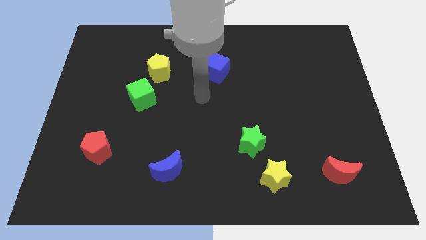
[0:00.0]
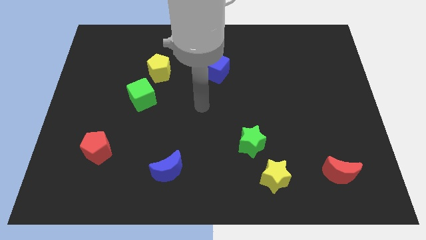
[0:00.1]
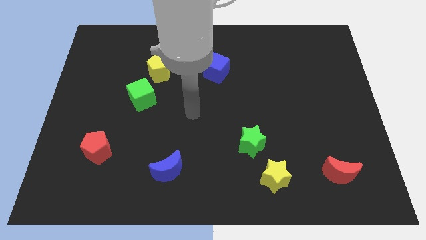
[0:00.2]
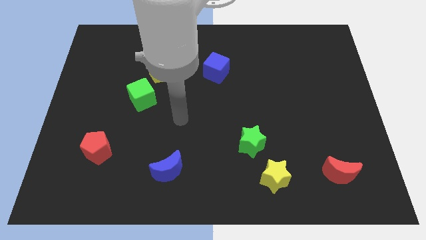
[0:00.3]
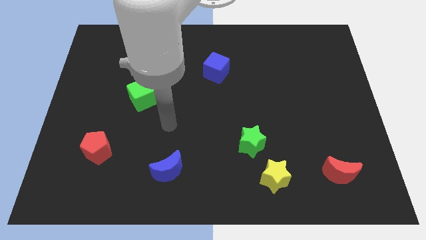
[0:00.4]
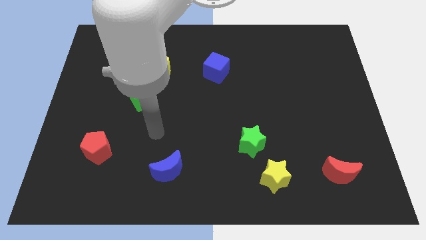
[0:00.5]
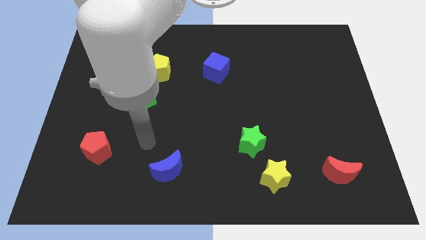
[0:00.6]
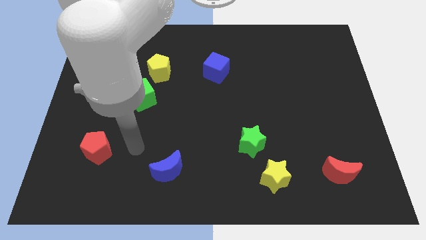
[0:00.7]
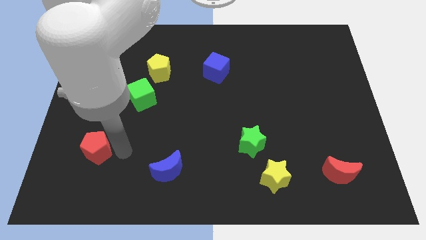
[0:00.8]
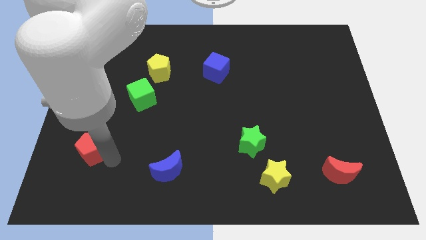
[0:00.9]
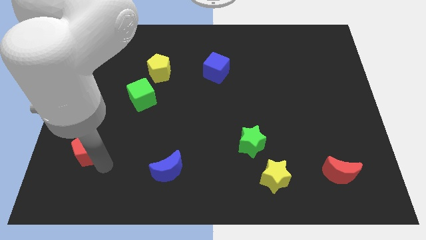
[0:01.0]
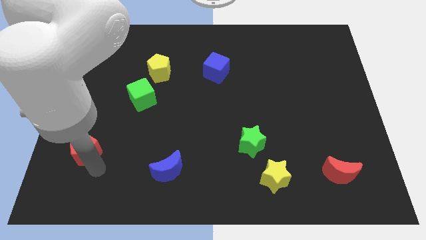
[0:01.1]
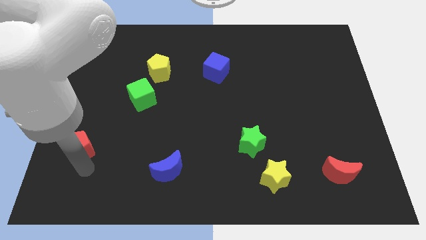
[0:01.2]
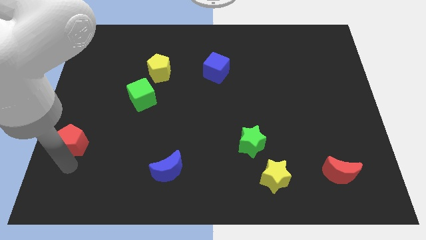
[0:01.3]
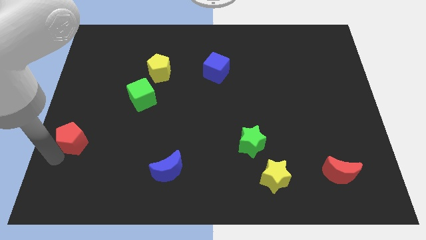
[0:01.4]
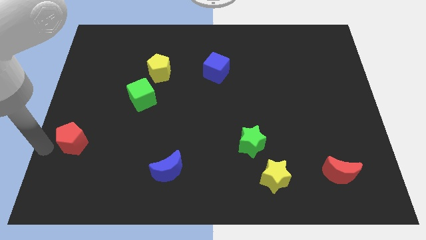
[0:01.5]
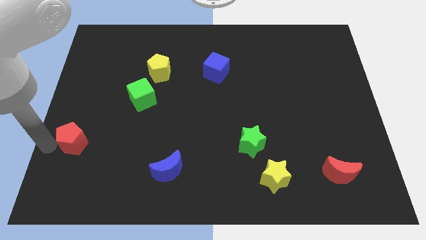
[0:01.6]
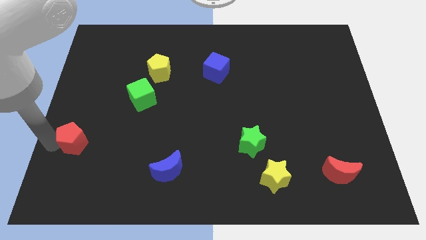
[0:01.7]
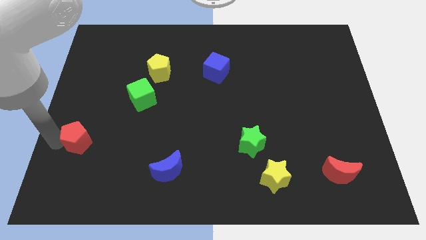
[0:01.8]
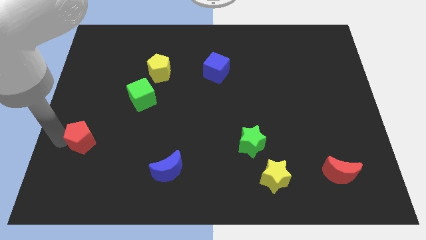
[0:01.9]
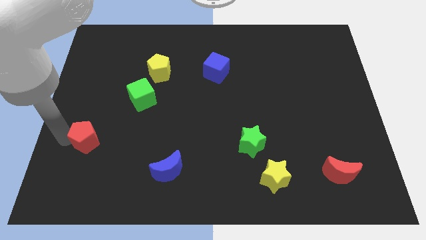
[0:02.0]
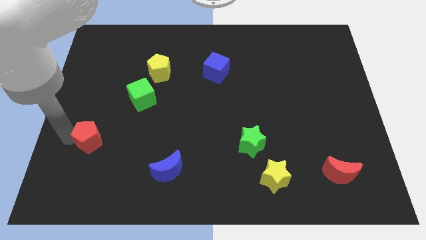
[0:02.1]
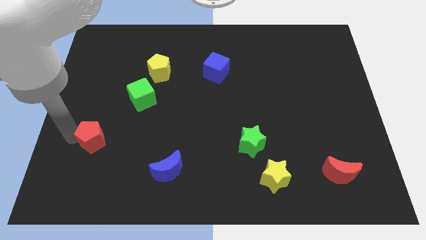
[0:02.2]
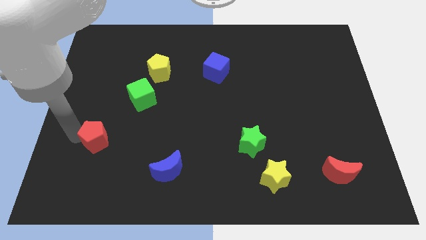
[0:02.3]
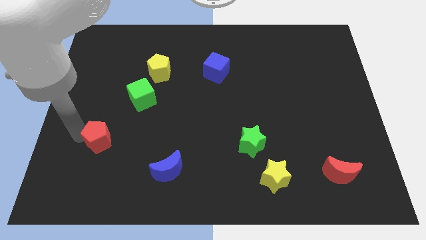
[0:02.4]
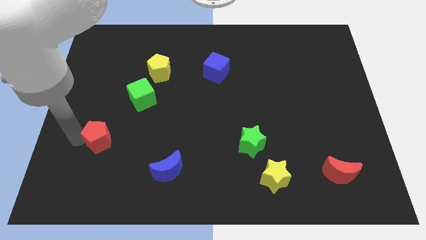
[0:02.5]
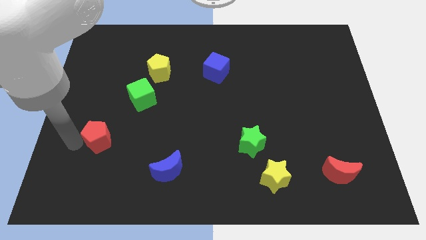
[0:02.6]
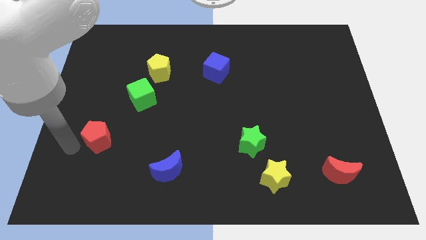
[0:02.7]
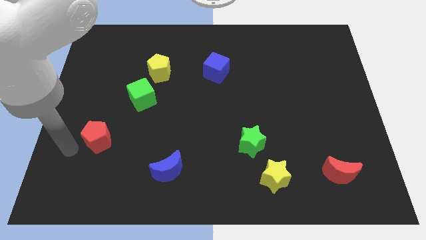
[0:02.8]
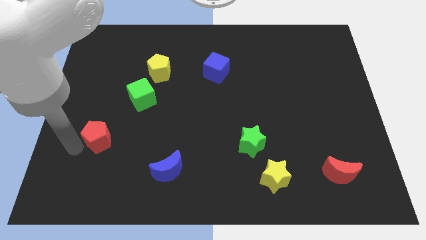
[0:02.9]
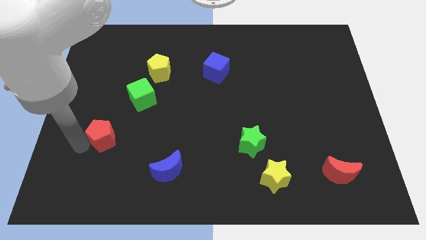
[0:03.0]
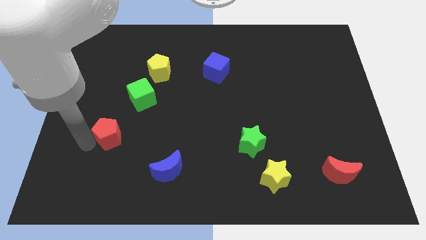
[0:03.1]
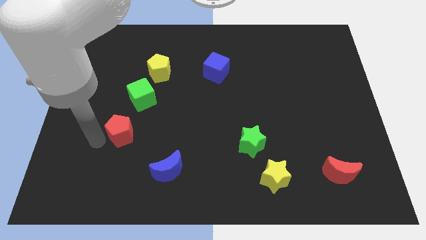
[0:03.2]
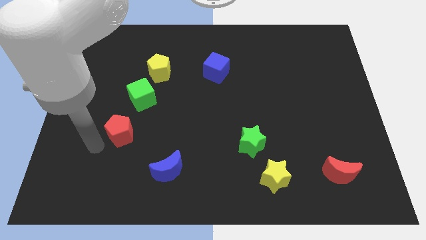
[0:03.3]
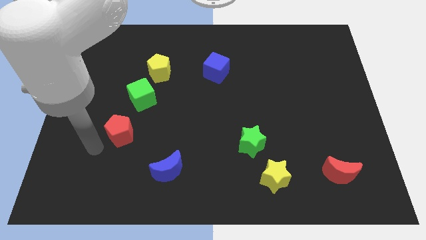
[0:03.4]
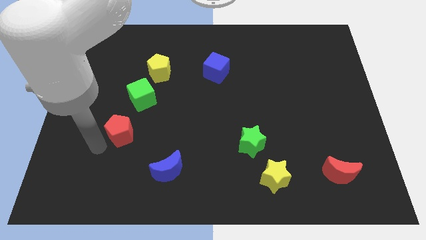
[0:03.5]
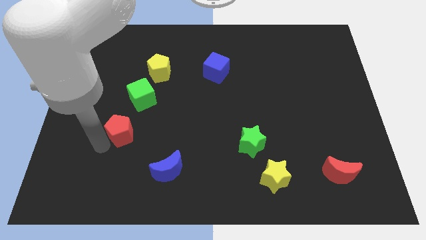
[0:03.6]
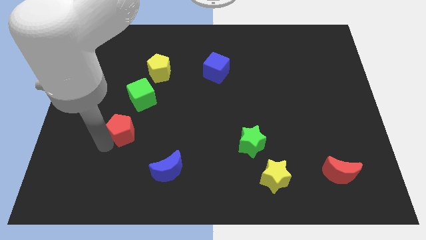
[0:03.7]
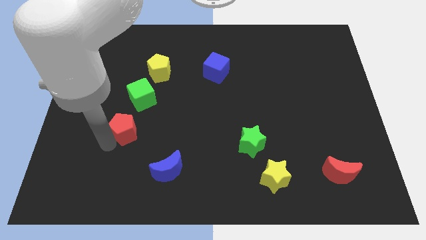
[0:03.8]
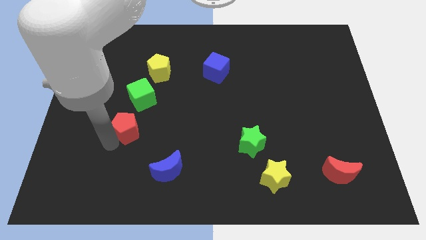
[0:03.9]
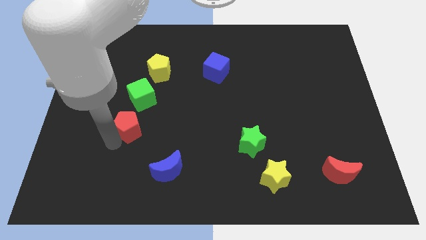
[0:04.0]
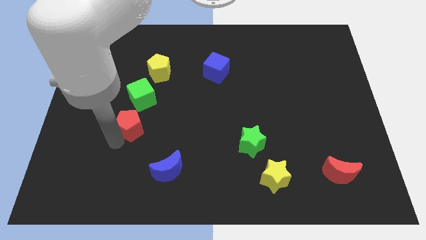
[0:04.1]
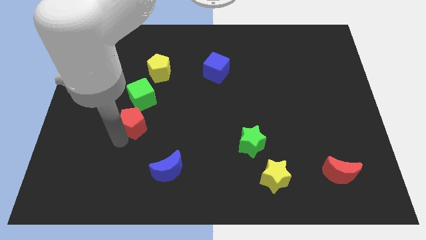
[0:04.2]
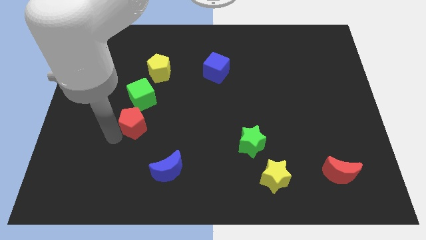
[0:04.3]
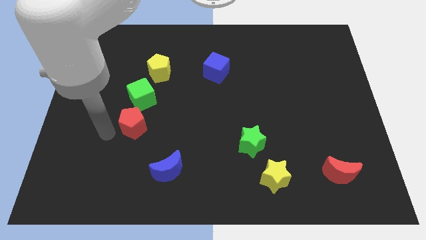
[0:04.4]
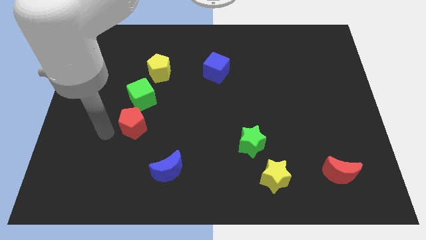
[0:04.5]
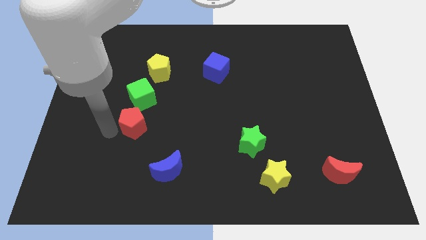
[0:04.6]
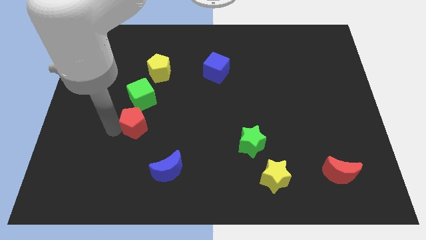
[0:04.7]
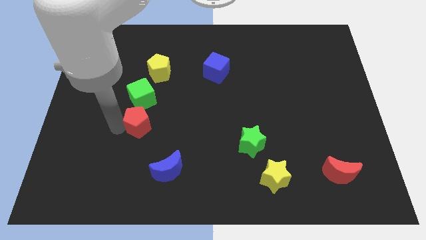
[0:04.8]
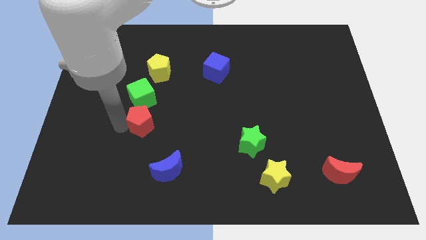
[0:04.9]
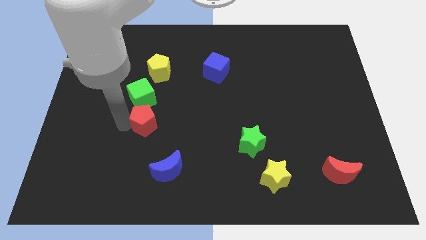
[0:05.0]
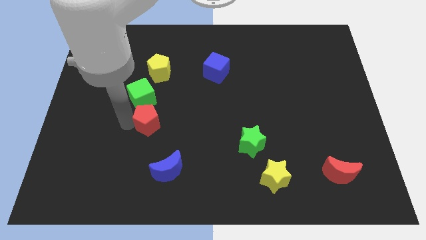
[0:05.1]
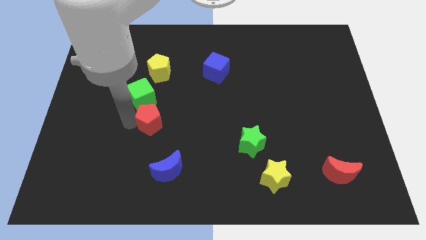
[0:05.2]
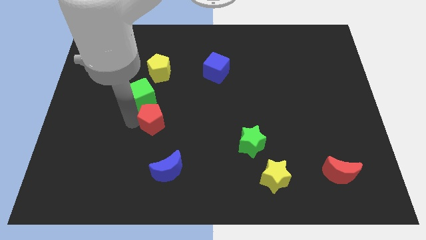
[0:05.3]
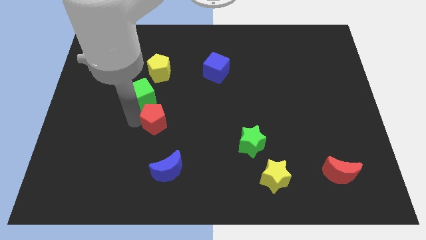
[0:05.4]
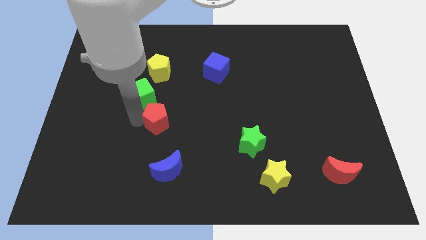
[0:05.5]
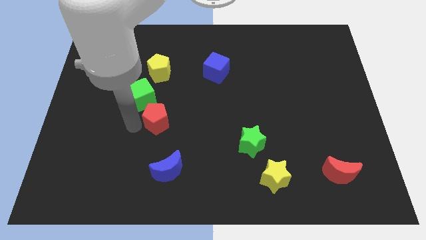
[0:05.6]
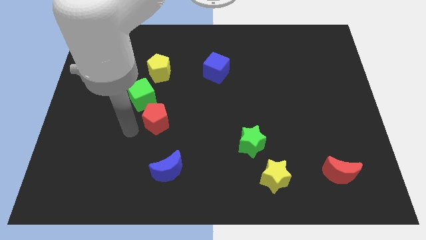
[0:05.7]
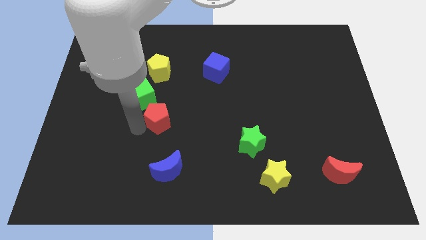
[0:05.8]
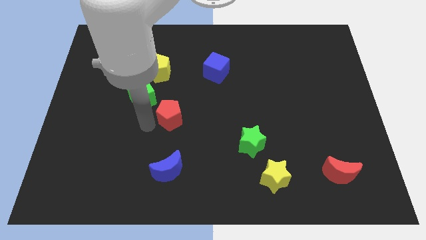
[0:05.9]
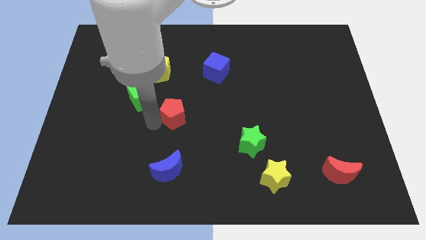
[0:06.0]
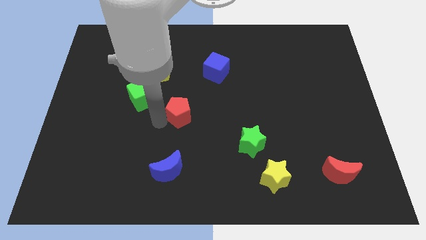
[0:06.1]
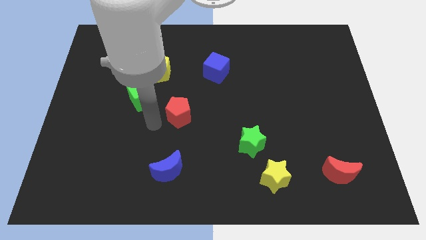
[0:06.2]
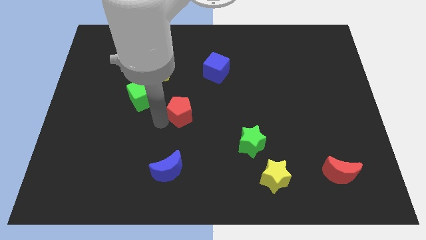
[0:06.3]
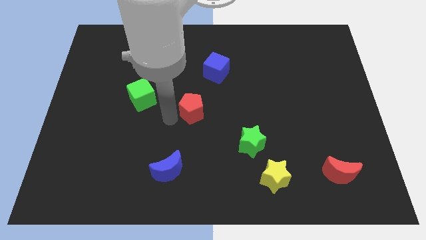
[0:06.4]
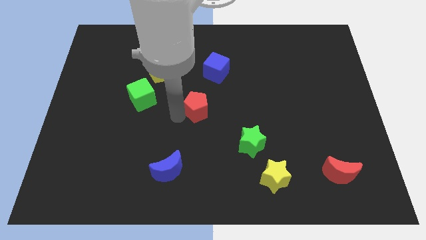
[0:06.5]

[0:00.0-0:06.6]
move the red pentagon below the blue cube

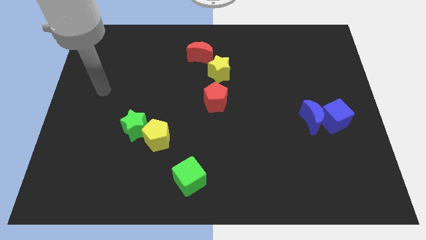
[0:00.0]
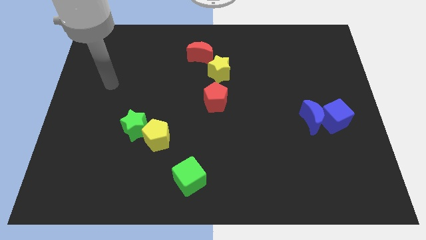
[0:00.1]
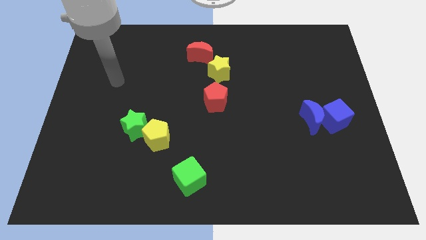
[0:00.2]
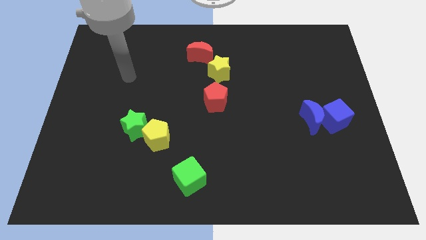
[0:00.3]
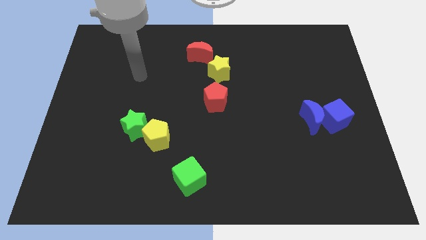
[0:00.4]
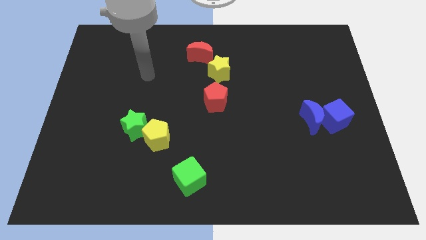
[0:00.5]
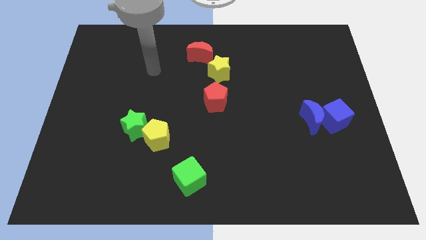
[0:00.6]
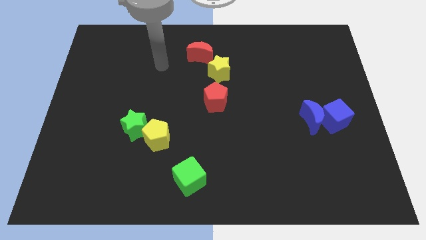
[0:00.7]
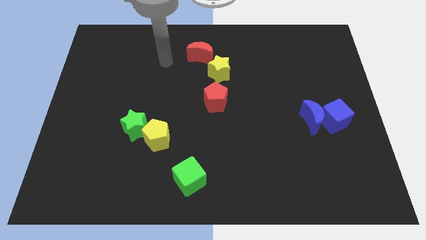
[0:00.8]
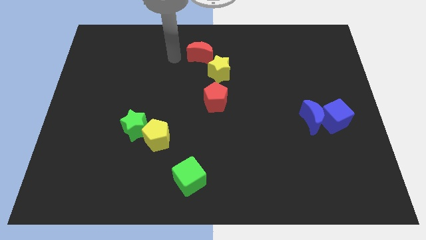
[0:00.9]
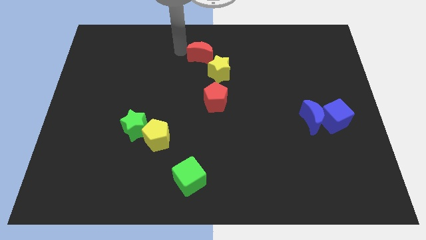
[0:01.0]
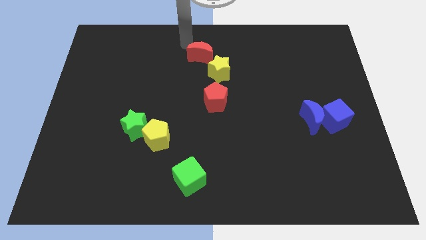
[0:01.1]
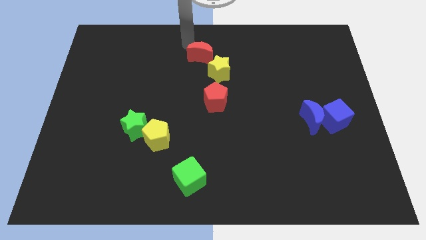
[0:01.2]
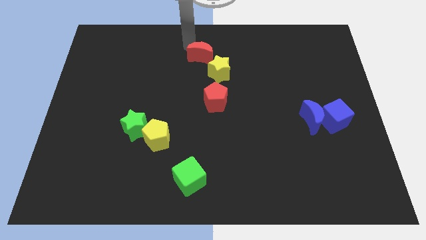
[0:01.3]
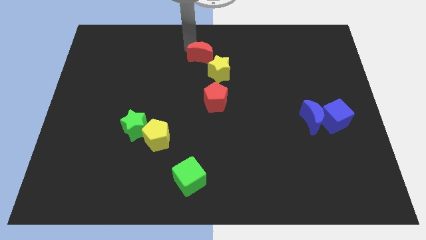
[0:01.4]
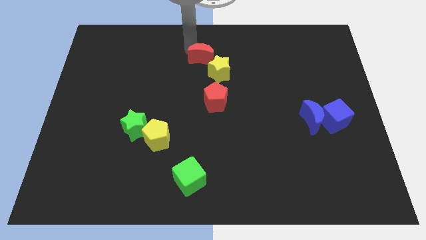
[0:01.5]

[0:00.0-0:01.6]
push the red moon to the top side of the red pentagon
